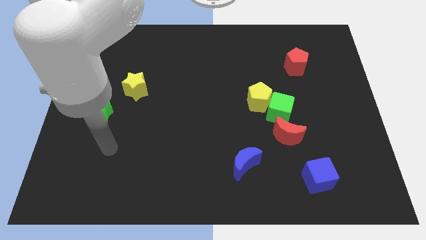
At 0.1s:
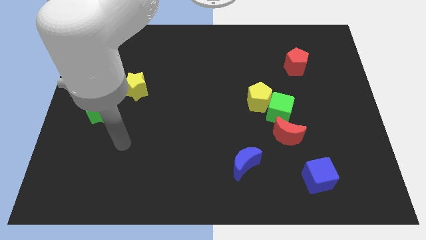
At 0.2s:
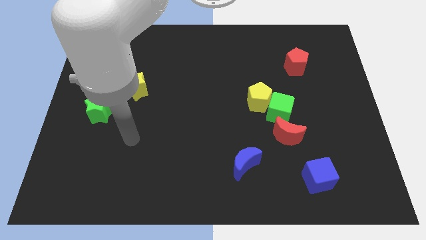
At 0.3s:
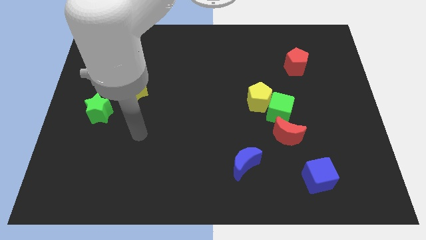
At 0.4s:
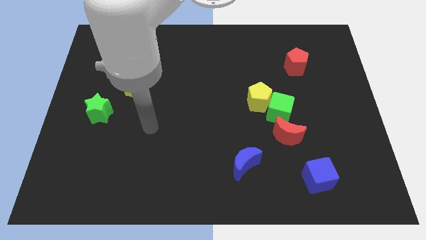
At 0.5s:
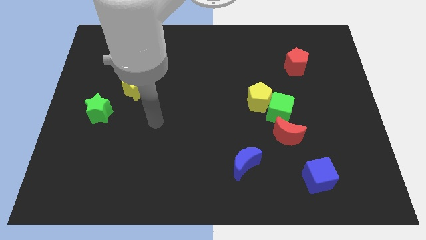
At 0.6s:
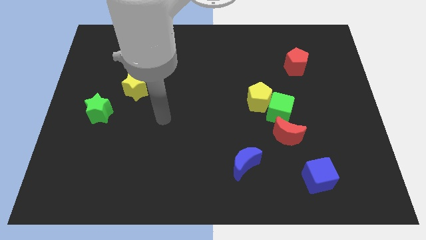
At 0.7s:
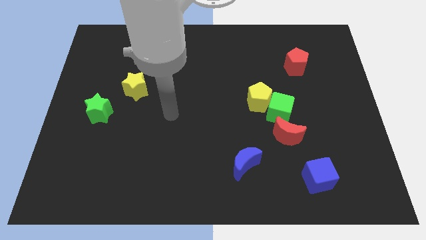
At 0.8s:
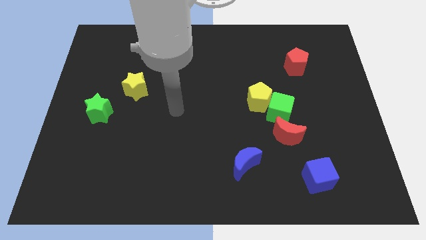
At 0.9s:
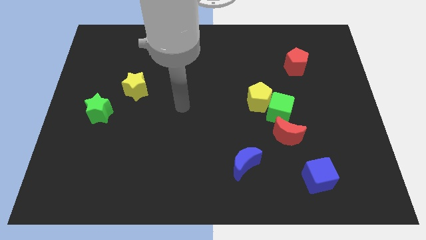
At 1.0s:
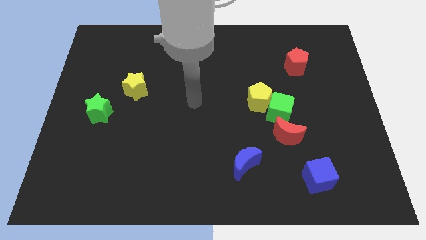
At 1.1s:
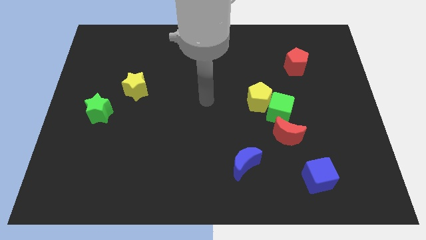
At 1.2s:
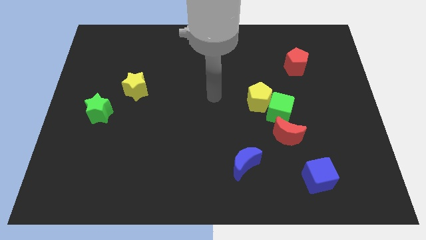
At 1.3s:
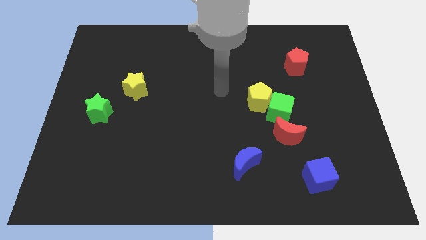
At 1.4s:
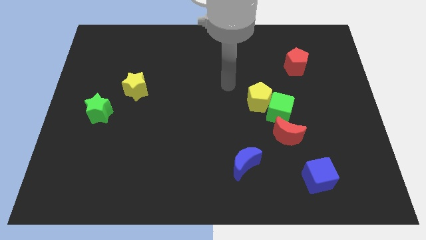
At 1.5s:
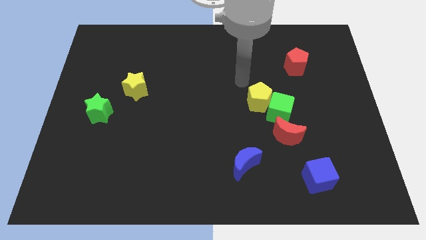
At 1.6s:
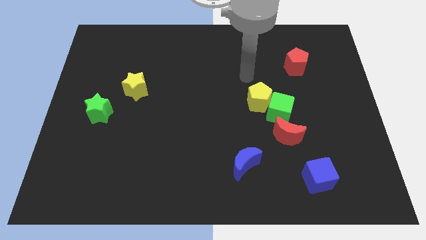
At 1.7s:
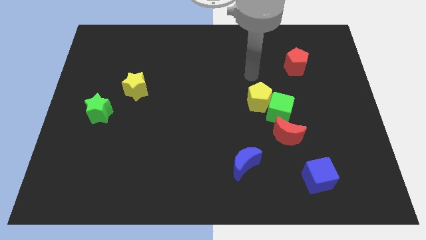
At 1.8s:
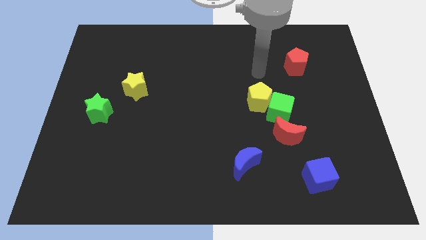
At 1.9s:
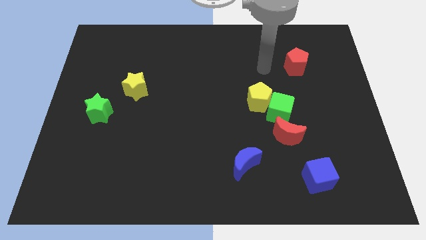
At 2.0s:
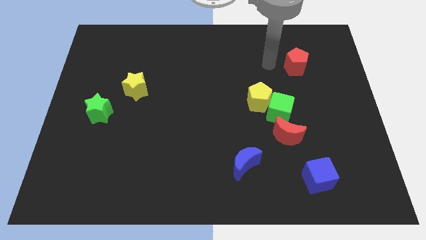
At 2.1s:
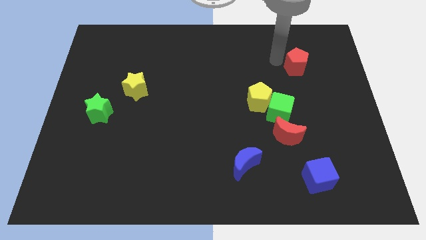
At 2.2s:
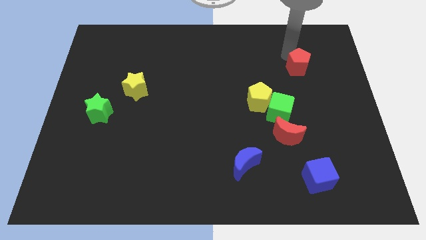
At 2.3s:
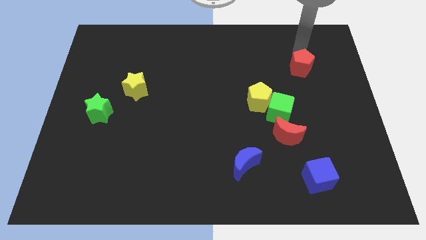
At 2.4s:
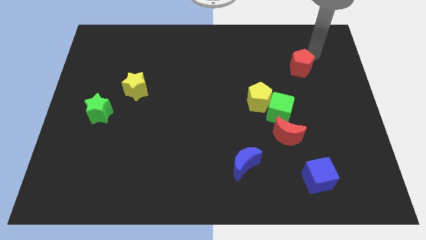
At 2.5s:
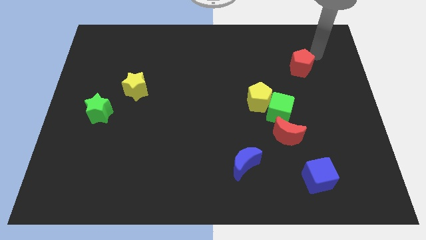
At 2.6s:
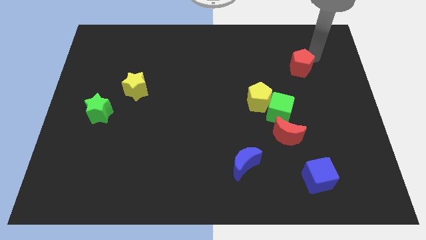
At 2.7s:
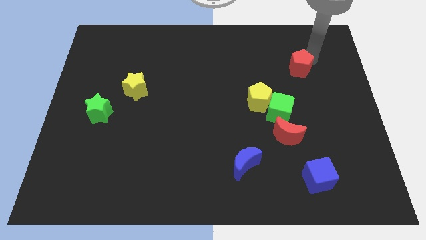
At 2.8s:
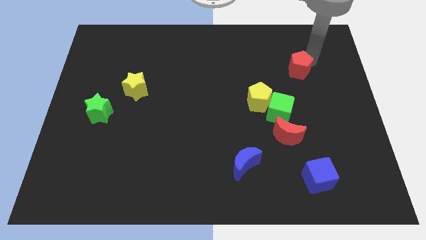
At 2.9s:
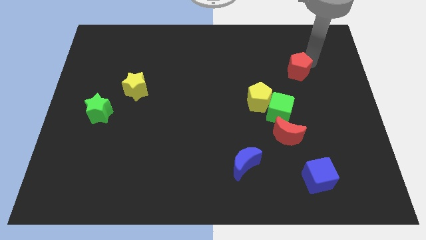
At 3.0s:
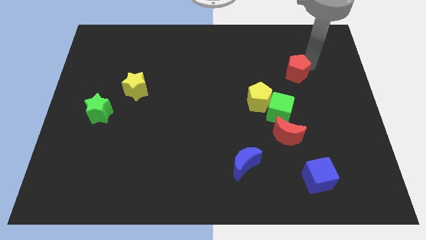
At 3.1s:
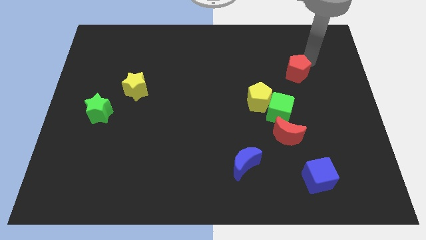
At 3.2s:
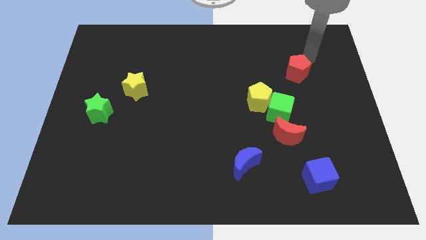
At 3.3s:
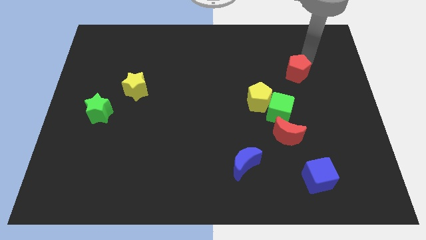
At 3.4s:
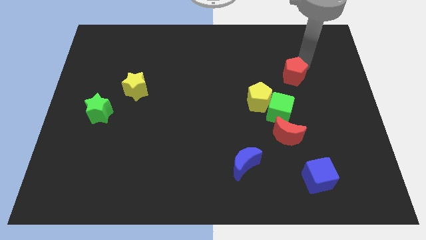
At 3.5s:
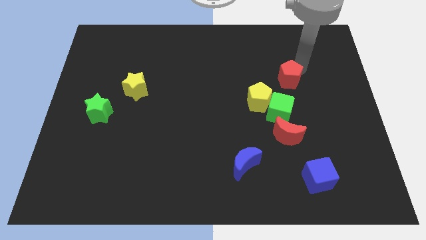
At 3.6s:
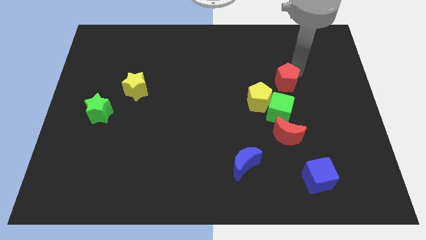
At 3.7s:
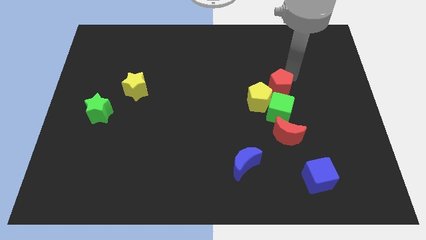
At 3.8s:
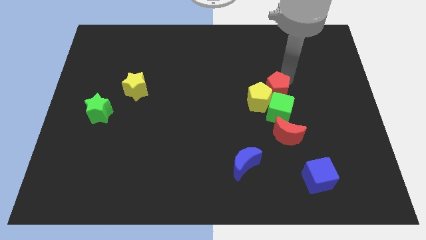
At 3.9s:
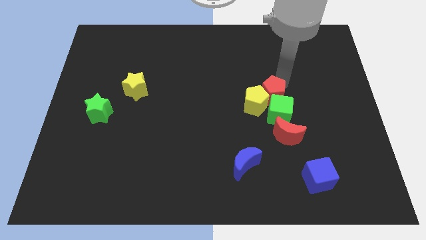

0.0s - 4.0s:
put the red pentagon close to the green cube

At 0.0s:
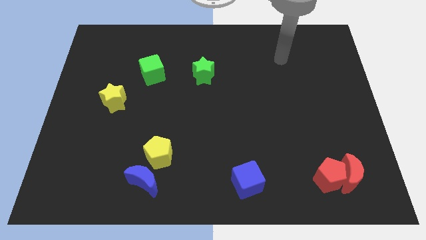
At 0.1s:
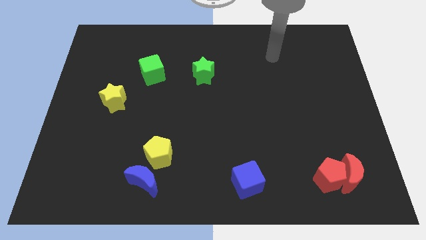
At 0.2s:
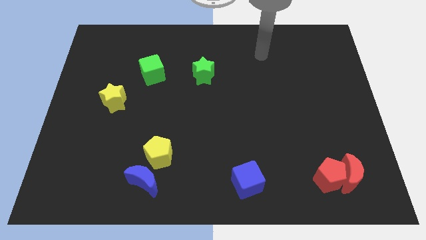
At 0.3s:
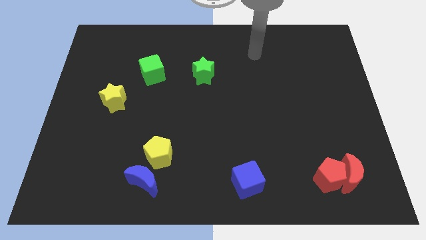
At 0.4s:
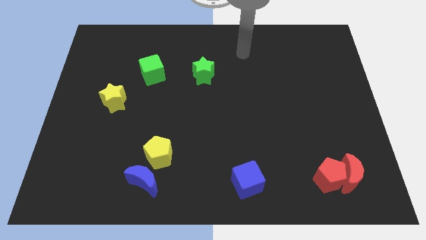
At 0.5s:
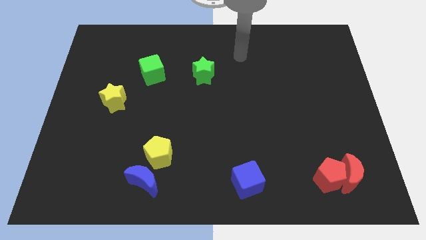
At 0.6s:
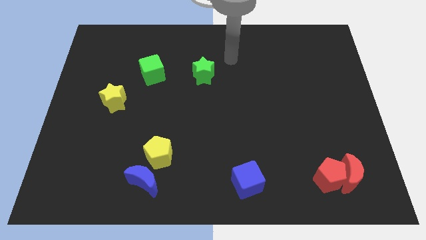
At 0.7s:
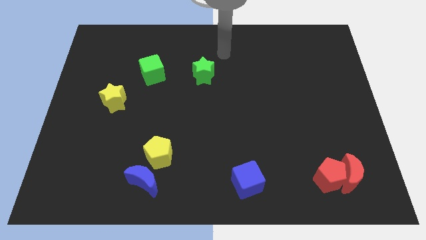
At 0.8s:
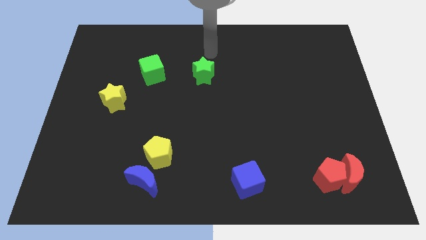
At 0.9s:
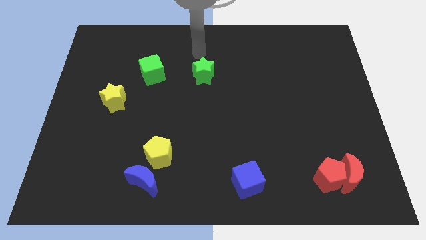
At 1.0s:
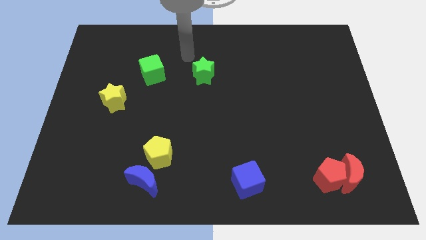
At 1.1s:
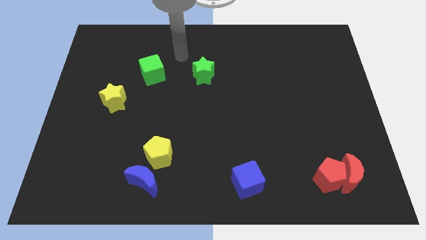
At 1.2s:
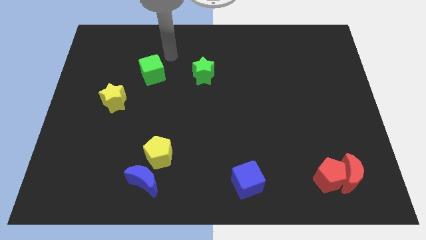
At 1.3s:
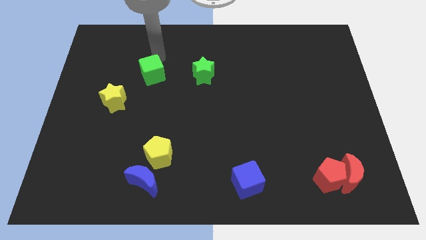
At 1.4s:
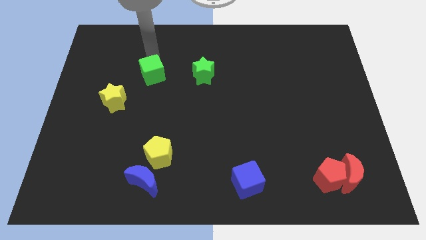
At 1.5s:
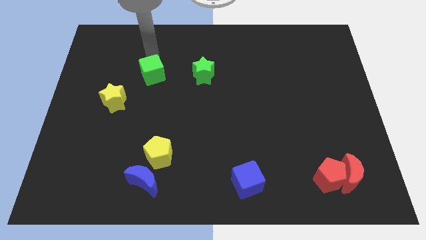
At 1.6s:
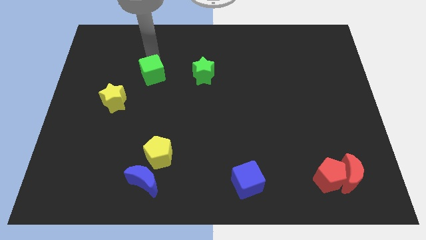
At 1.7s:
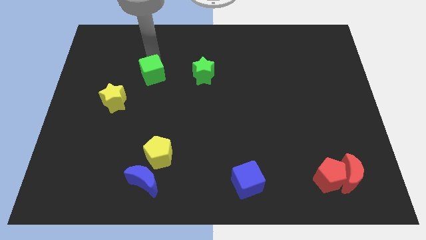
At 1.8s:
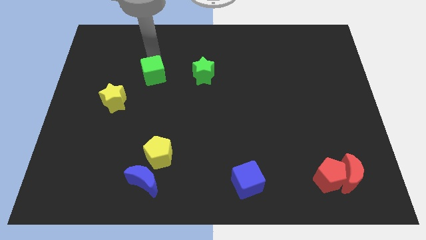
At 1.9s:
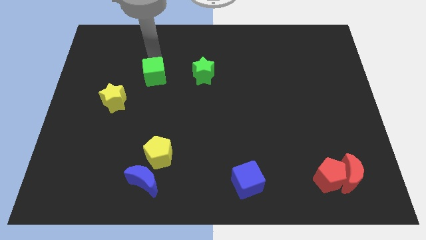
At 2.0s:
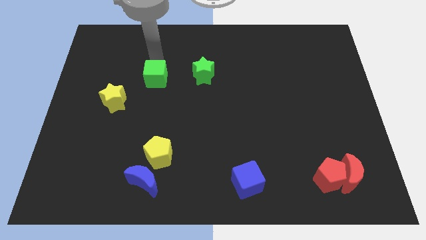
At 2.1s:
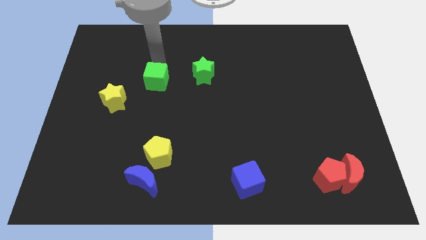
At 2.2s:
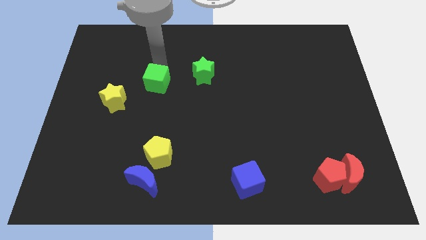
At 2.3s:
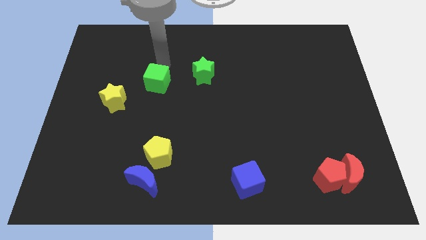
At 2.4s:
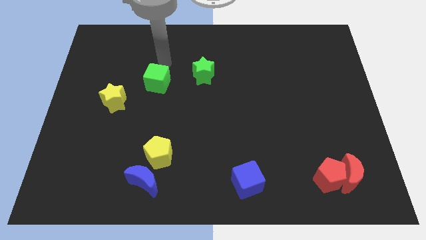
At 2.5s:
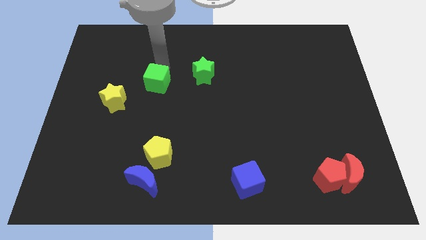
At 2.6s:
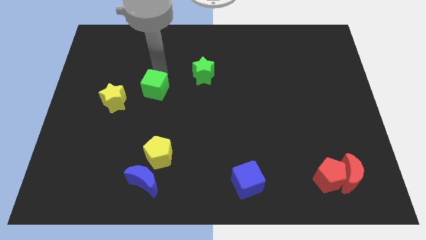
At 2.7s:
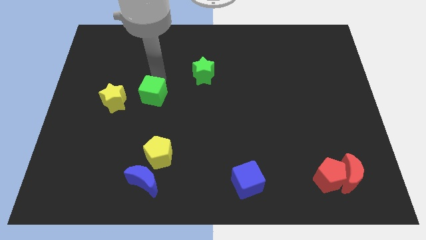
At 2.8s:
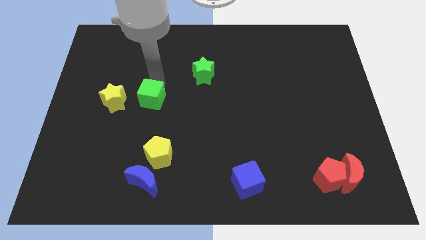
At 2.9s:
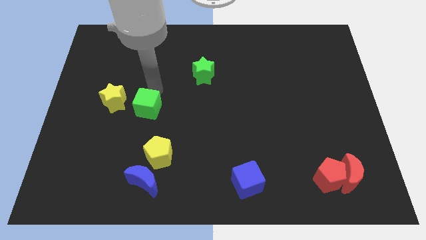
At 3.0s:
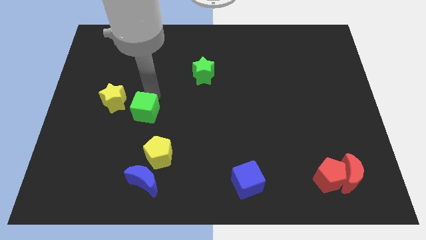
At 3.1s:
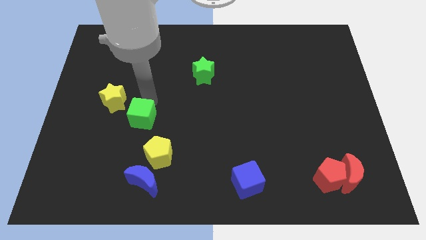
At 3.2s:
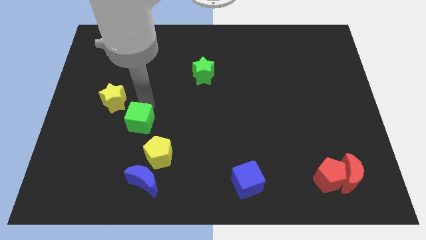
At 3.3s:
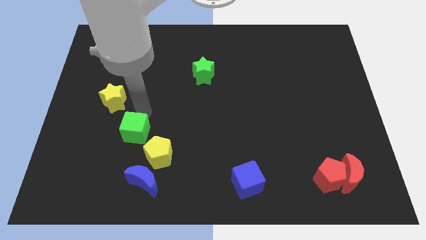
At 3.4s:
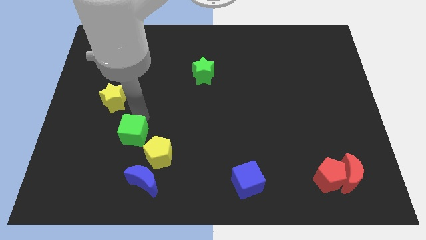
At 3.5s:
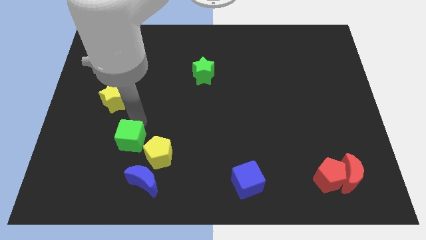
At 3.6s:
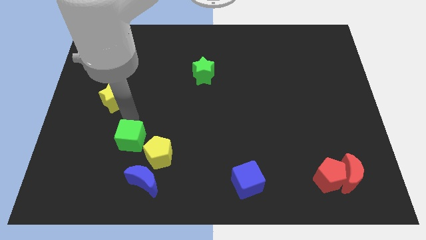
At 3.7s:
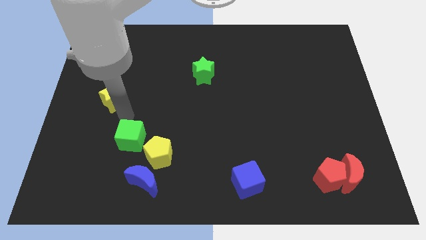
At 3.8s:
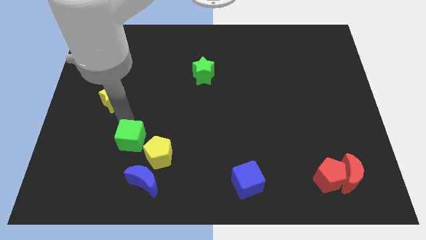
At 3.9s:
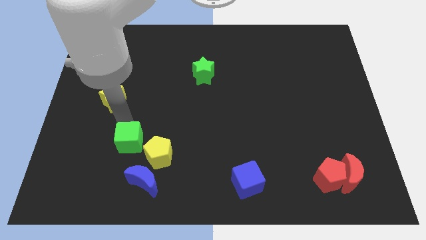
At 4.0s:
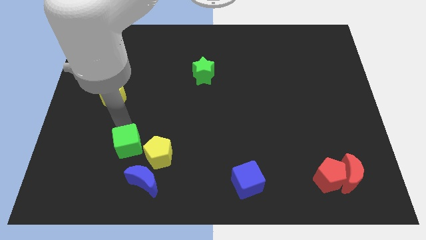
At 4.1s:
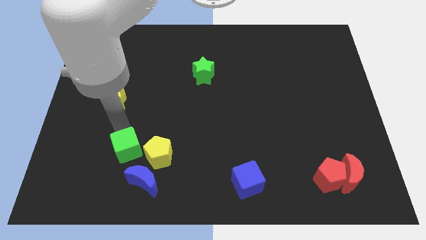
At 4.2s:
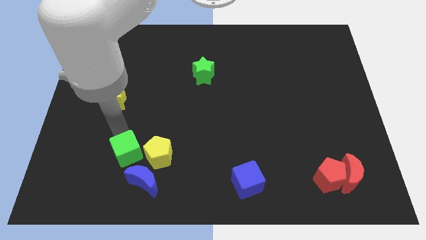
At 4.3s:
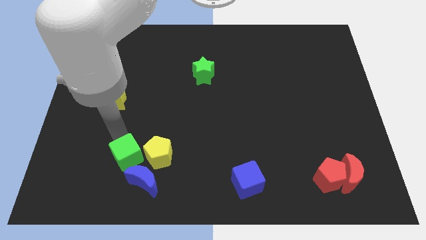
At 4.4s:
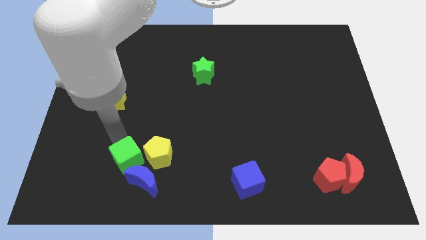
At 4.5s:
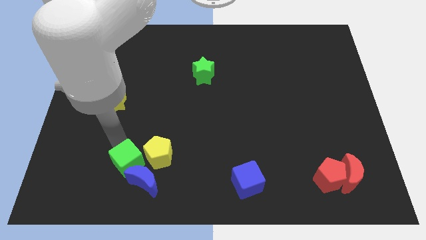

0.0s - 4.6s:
push the green cube next to the blue moon
